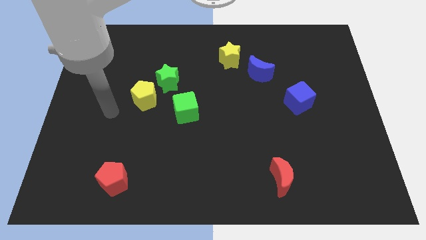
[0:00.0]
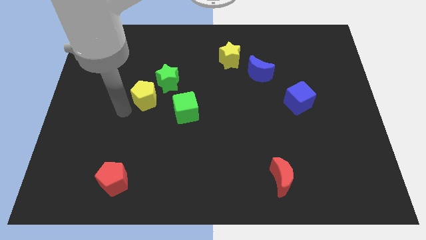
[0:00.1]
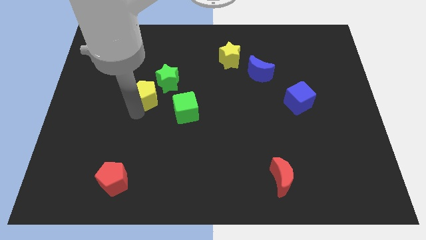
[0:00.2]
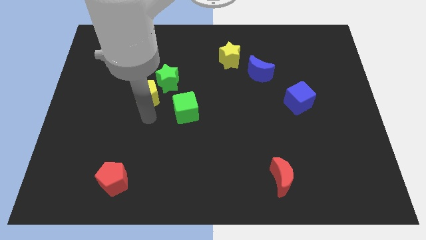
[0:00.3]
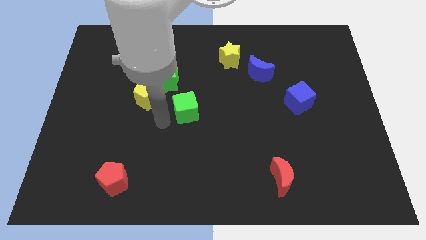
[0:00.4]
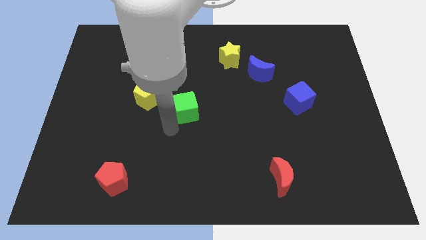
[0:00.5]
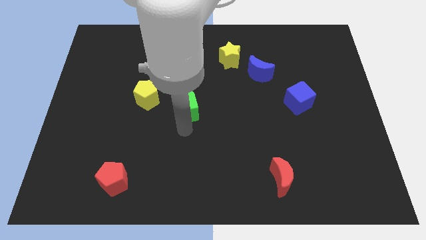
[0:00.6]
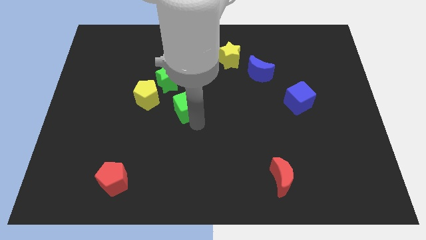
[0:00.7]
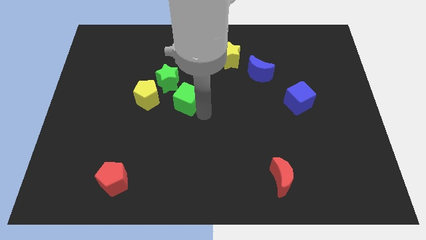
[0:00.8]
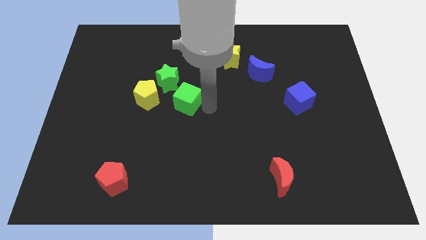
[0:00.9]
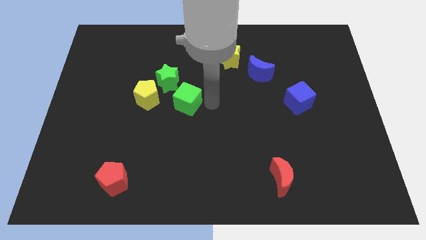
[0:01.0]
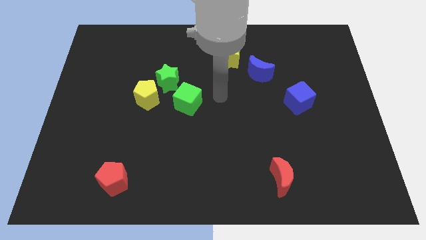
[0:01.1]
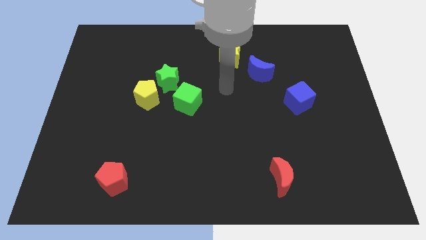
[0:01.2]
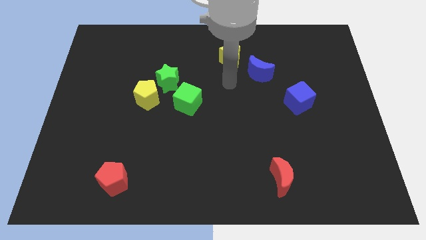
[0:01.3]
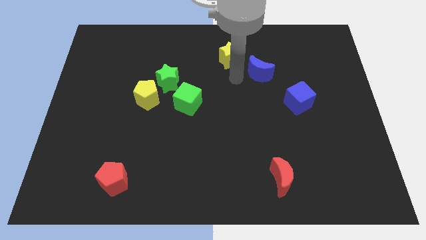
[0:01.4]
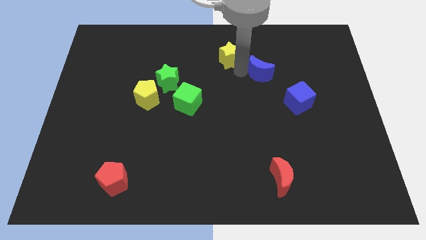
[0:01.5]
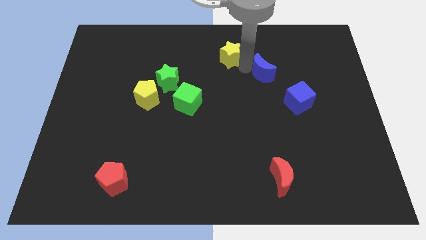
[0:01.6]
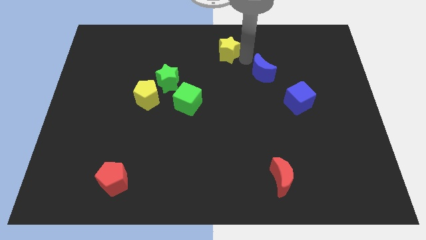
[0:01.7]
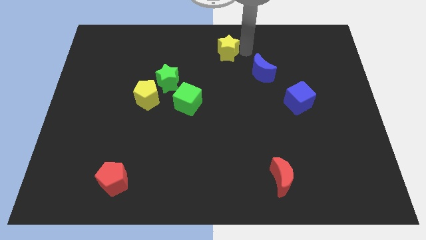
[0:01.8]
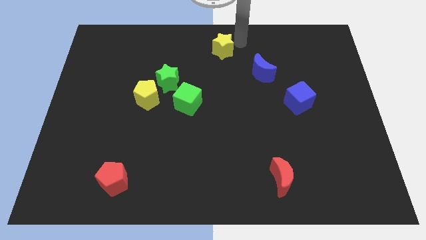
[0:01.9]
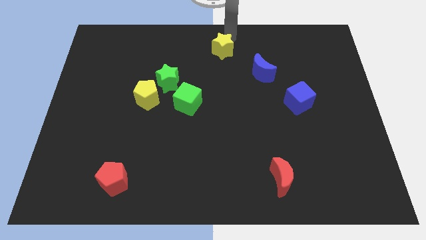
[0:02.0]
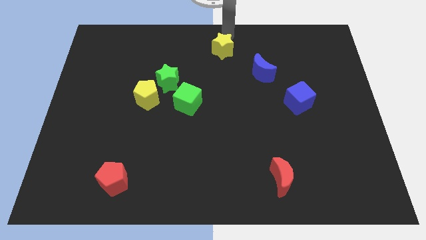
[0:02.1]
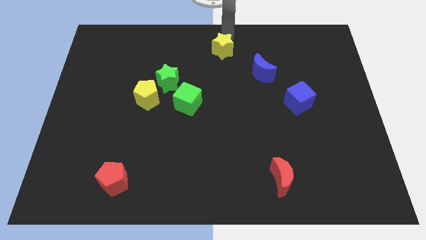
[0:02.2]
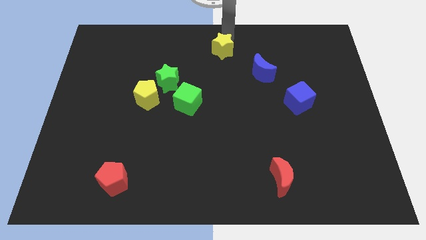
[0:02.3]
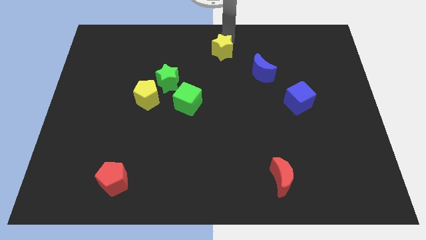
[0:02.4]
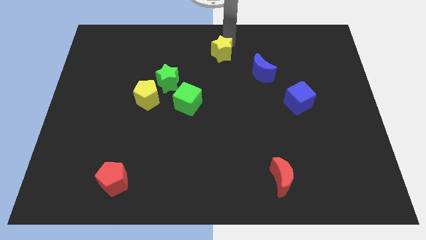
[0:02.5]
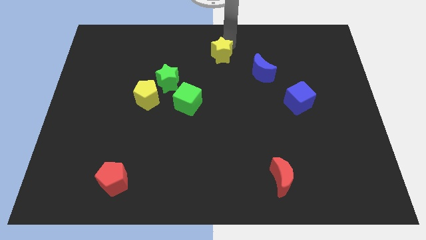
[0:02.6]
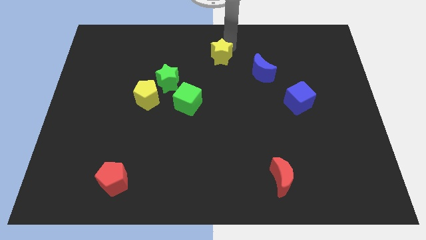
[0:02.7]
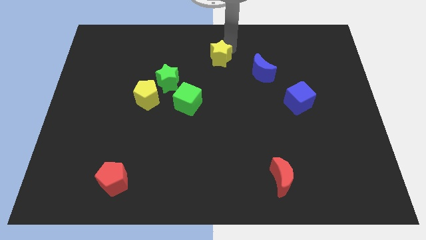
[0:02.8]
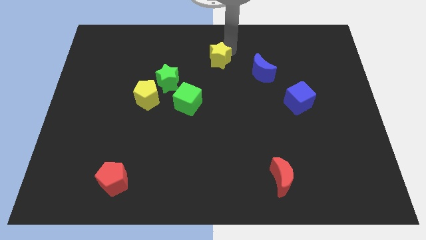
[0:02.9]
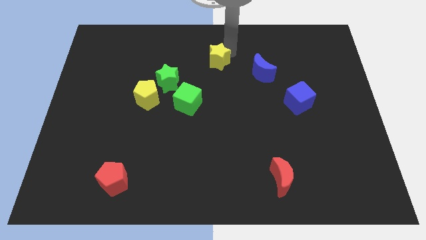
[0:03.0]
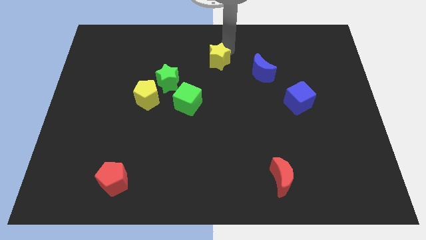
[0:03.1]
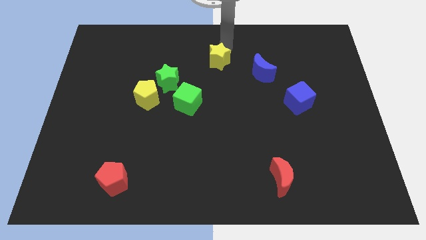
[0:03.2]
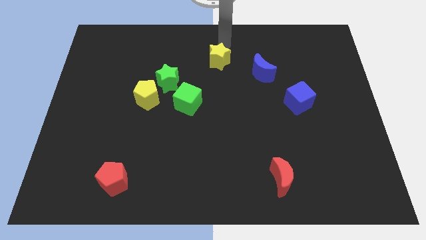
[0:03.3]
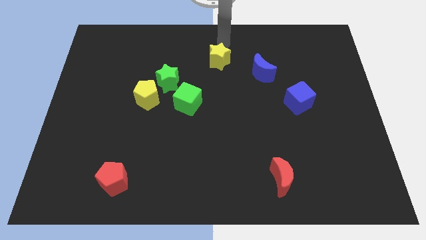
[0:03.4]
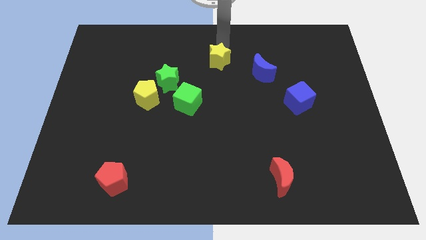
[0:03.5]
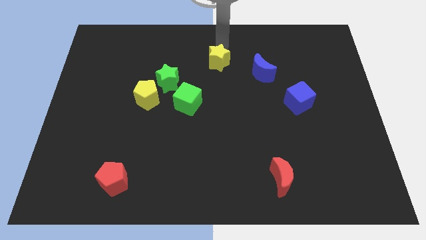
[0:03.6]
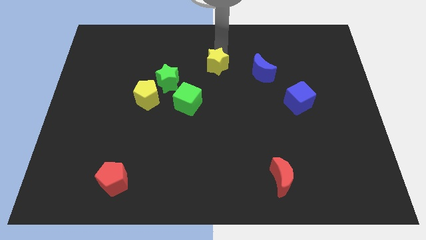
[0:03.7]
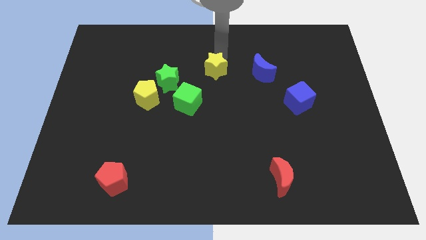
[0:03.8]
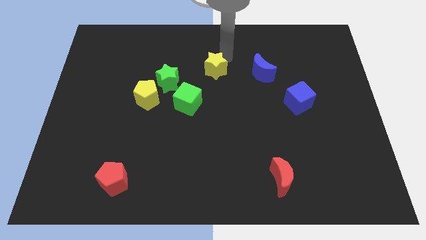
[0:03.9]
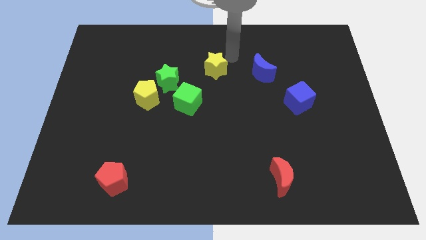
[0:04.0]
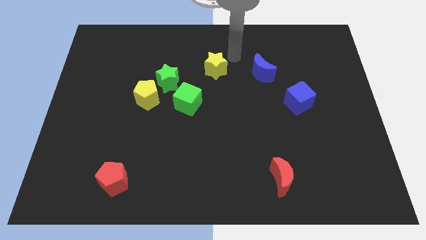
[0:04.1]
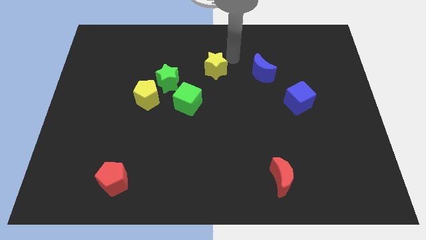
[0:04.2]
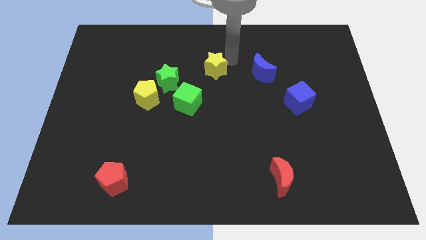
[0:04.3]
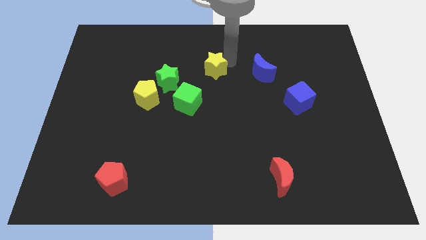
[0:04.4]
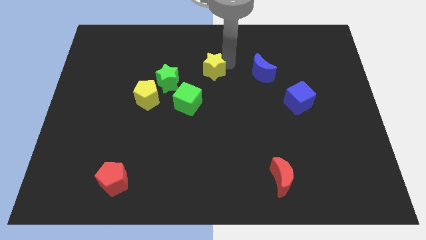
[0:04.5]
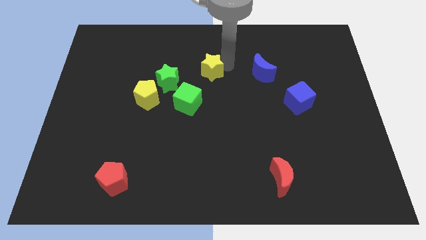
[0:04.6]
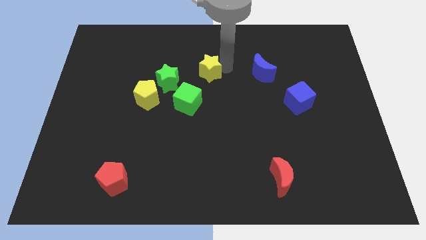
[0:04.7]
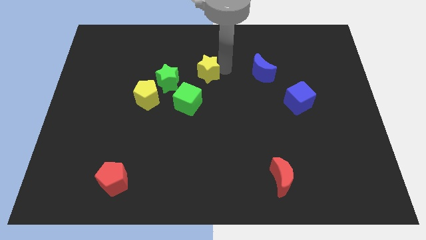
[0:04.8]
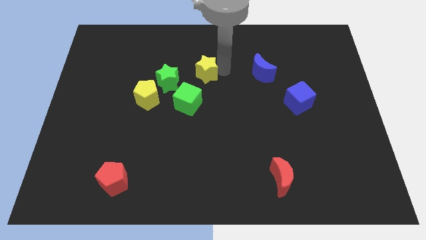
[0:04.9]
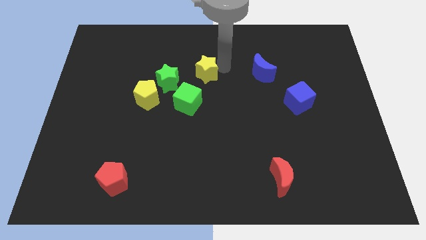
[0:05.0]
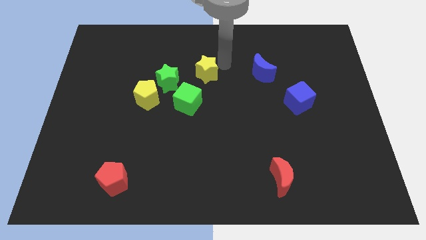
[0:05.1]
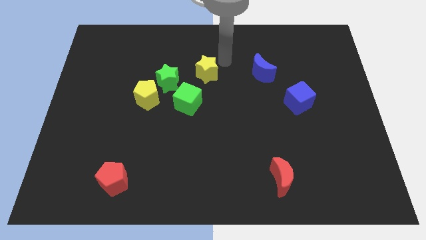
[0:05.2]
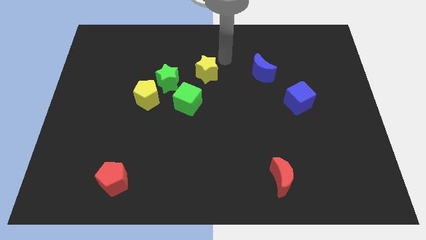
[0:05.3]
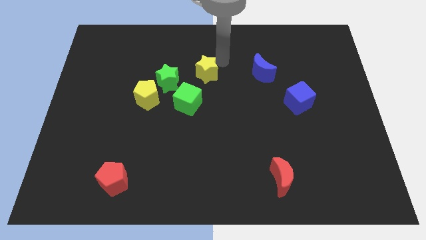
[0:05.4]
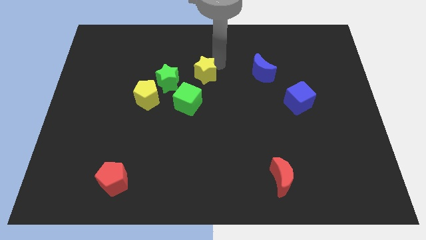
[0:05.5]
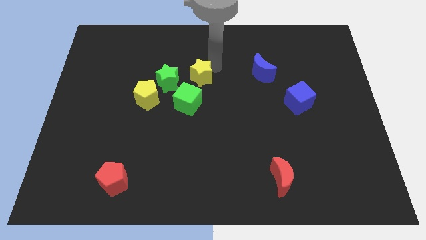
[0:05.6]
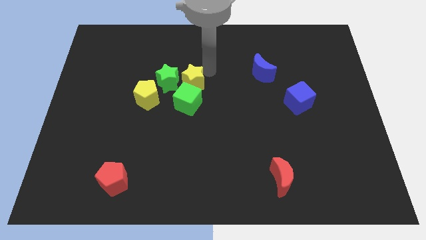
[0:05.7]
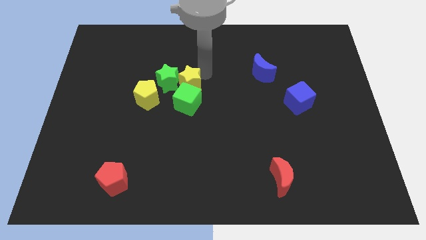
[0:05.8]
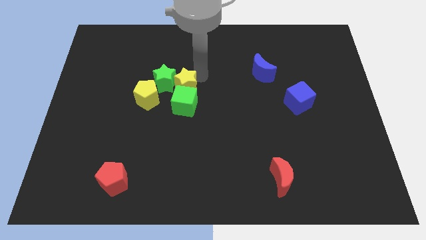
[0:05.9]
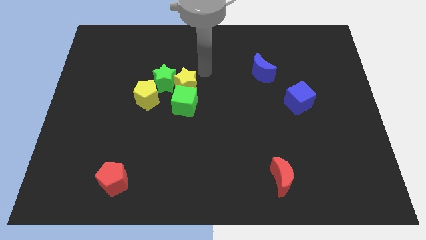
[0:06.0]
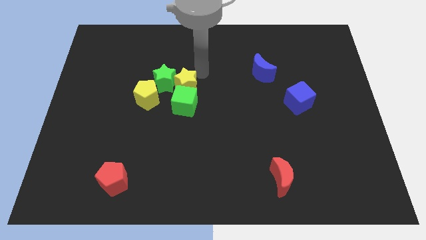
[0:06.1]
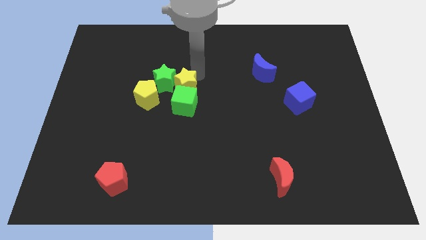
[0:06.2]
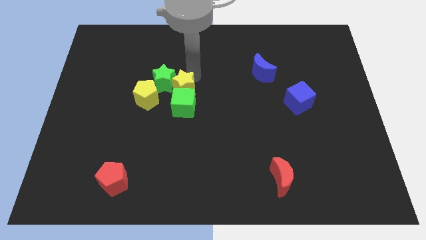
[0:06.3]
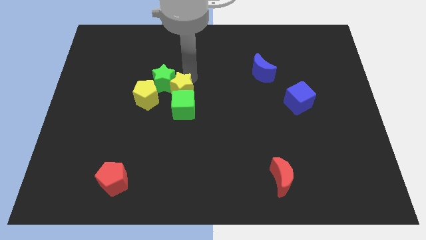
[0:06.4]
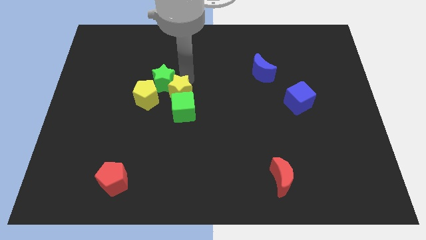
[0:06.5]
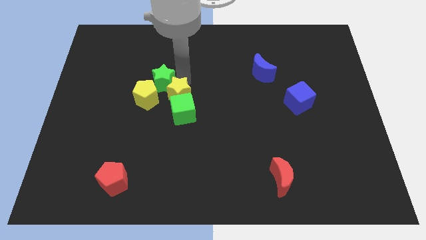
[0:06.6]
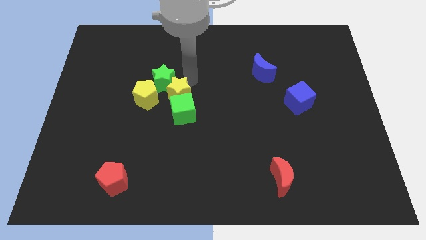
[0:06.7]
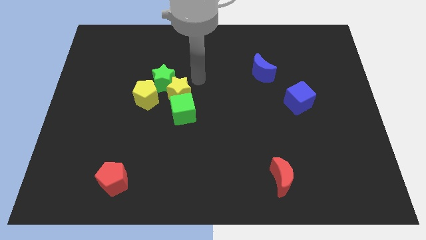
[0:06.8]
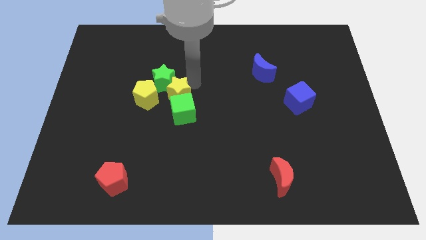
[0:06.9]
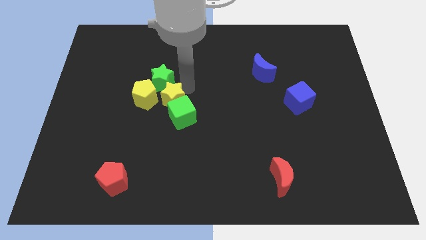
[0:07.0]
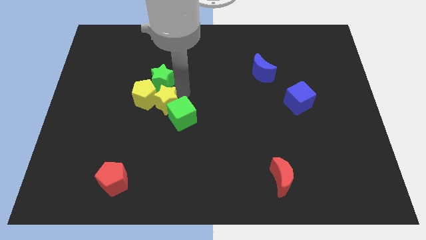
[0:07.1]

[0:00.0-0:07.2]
slide the yellow star downwards and left diagonally

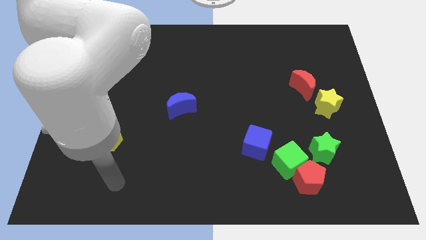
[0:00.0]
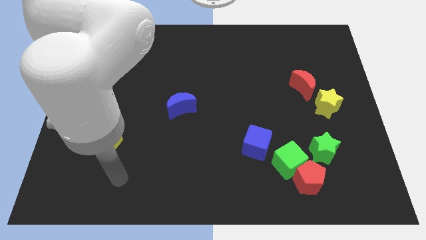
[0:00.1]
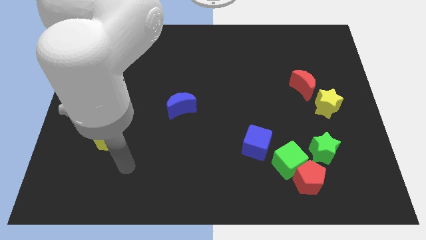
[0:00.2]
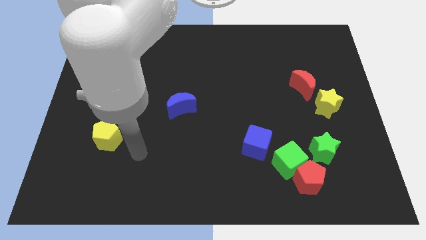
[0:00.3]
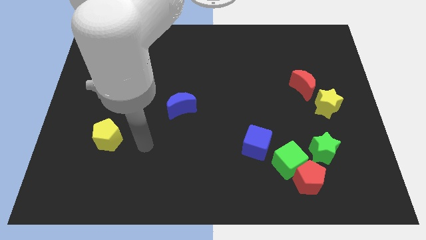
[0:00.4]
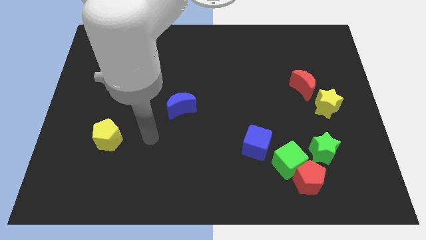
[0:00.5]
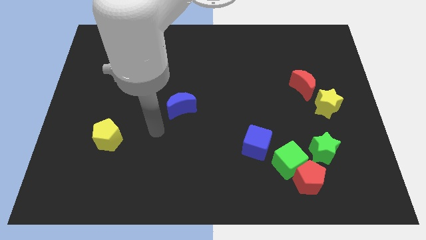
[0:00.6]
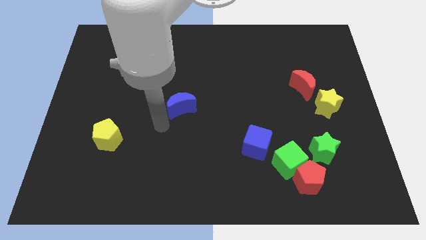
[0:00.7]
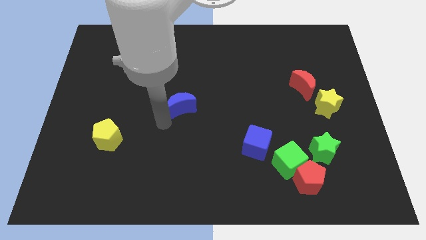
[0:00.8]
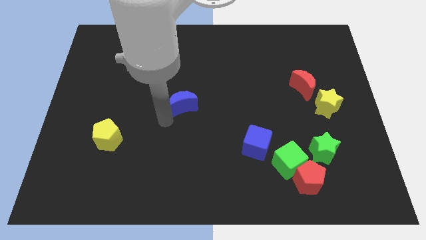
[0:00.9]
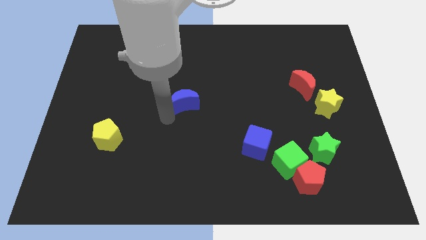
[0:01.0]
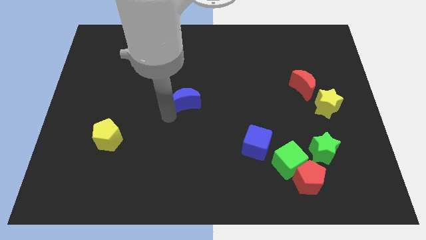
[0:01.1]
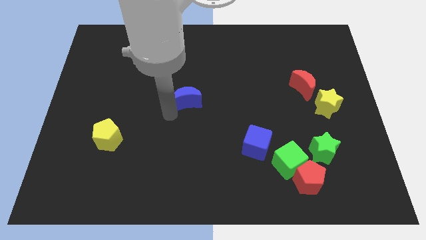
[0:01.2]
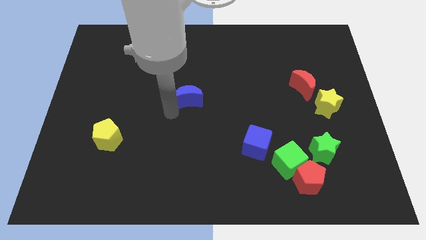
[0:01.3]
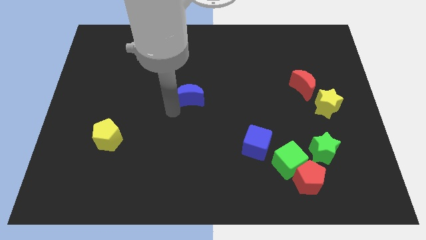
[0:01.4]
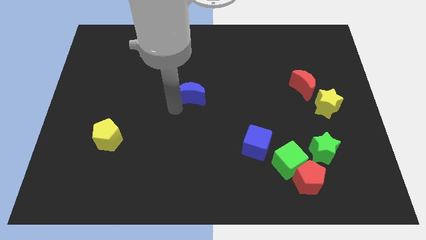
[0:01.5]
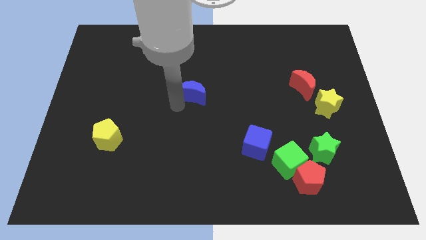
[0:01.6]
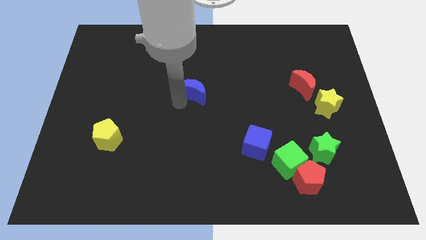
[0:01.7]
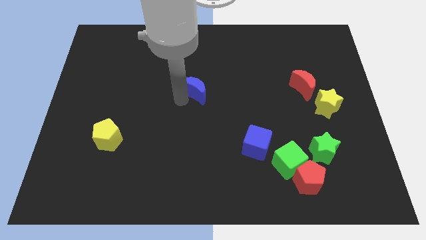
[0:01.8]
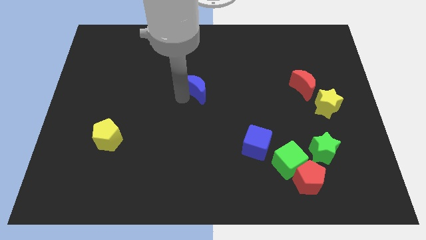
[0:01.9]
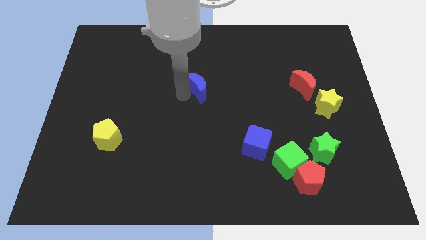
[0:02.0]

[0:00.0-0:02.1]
slide the blue moon diagonally up and to the right somewhat
